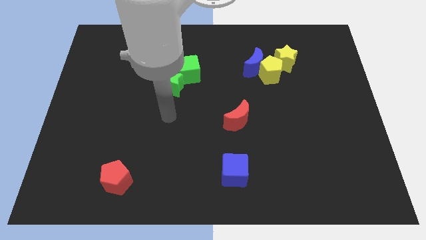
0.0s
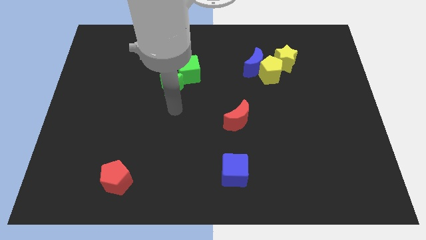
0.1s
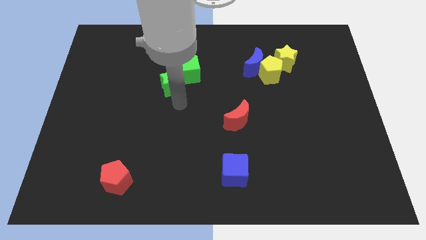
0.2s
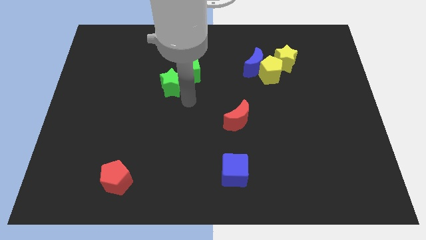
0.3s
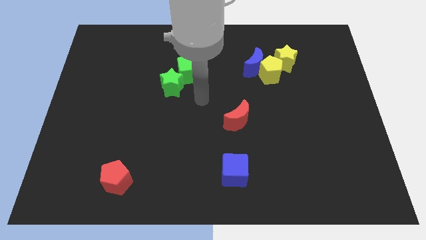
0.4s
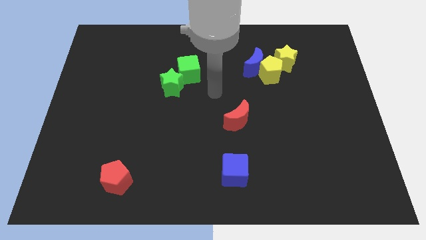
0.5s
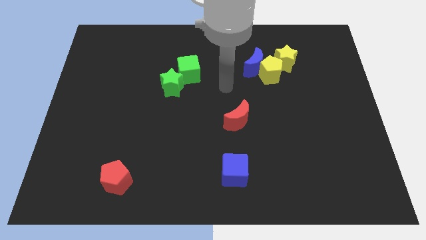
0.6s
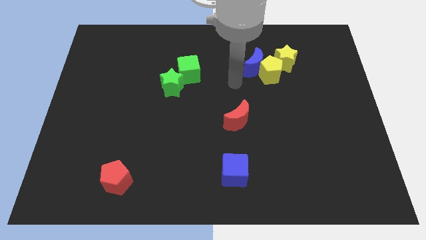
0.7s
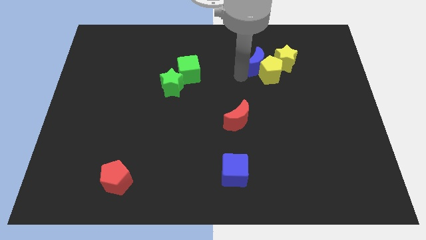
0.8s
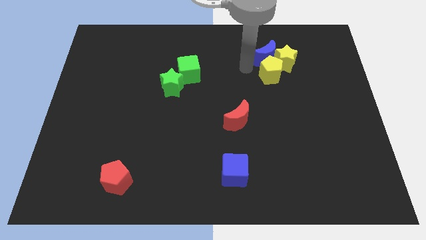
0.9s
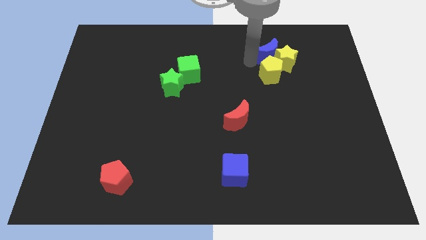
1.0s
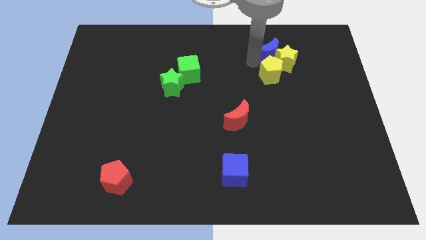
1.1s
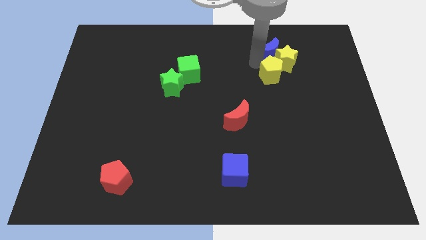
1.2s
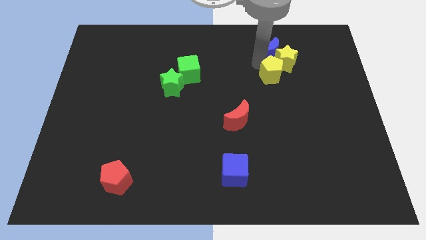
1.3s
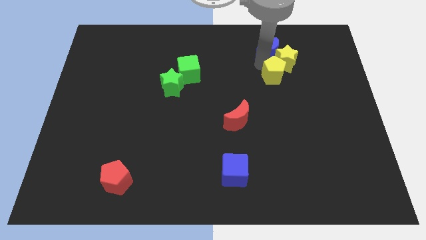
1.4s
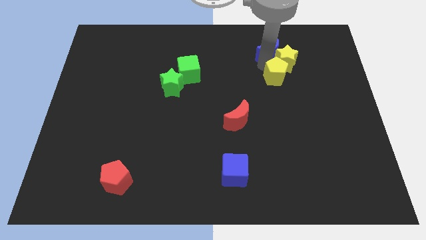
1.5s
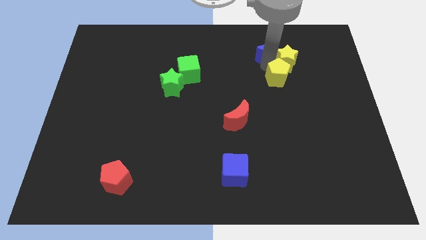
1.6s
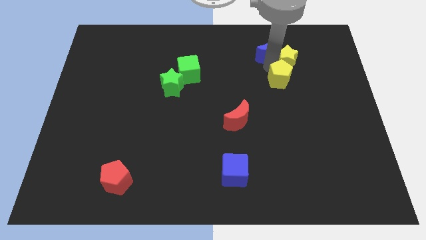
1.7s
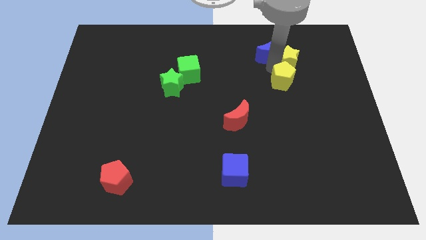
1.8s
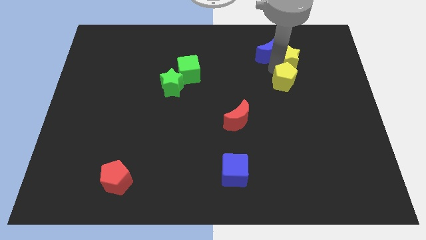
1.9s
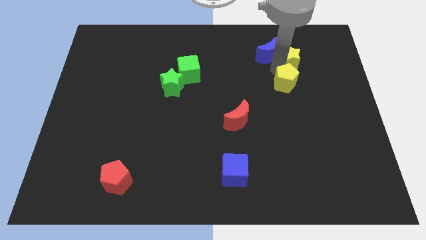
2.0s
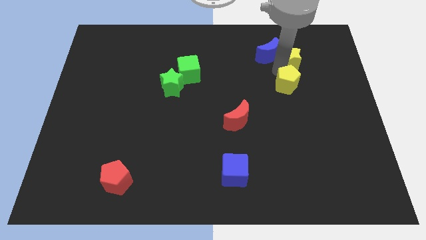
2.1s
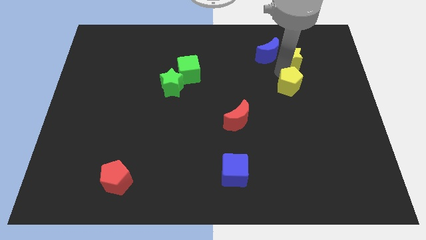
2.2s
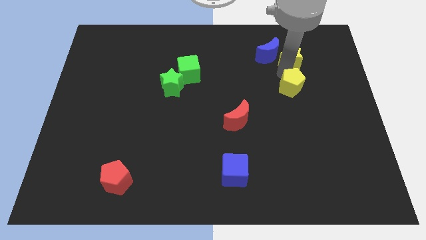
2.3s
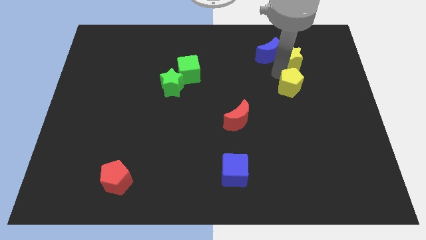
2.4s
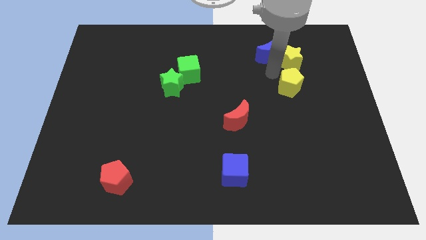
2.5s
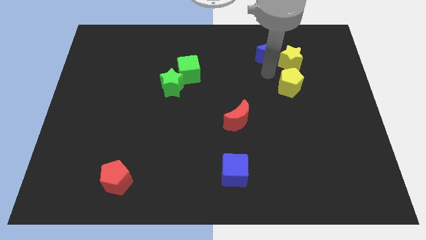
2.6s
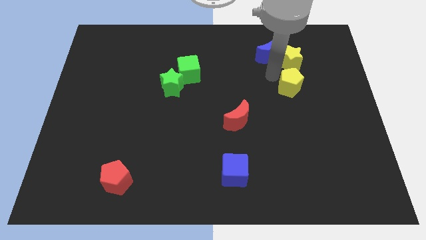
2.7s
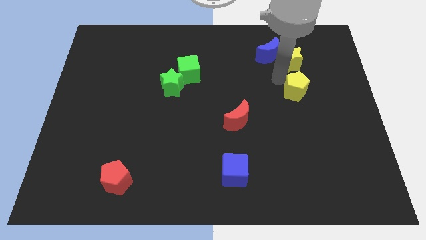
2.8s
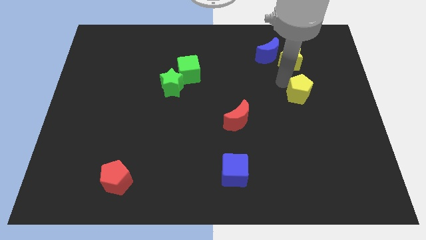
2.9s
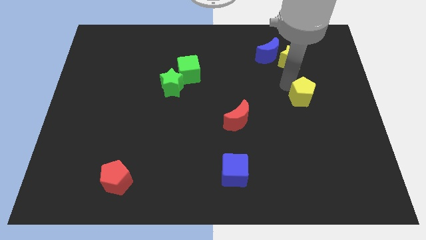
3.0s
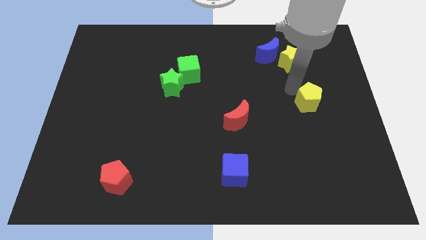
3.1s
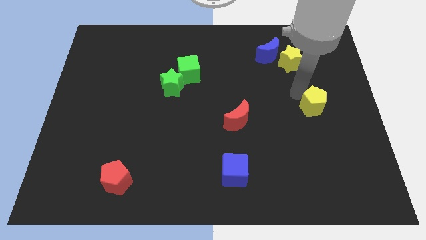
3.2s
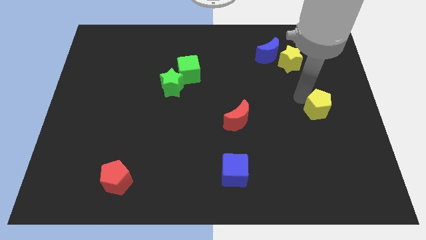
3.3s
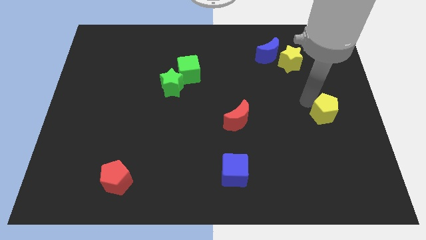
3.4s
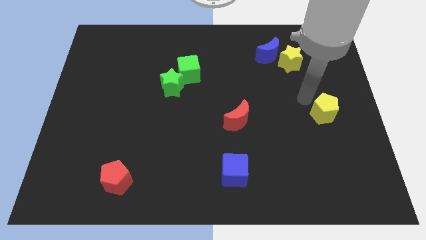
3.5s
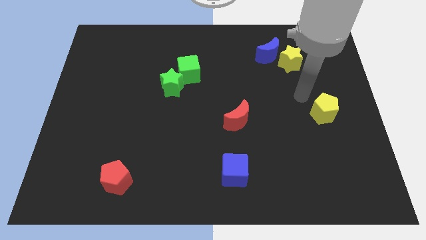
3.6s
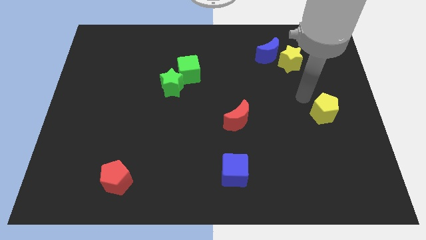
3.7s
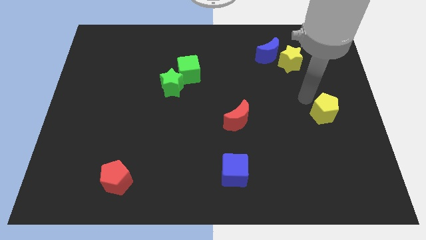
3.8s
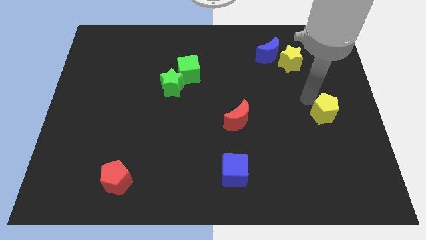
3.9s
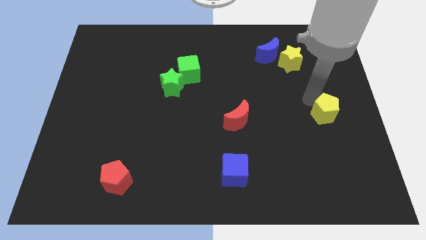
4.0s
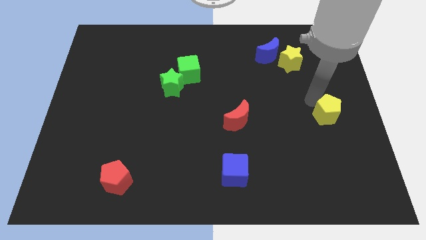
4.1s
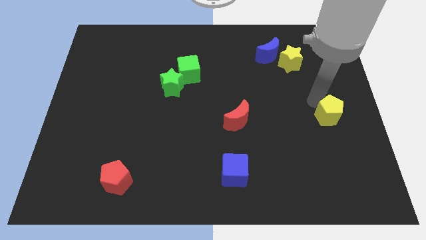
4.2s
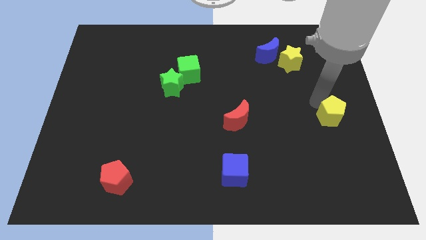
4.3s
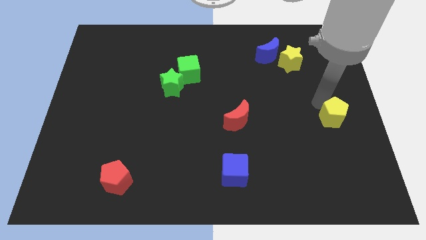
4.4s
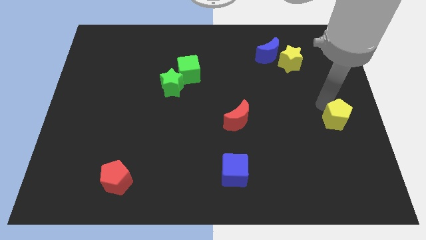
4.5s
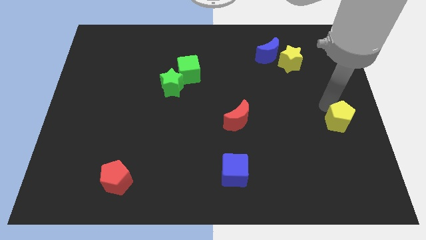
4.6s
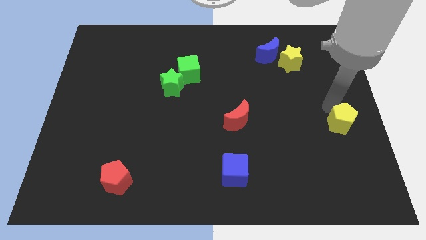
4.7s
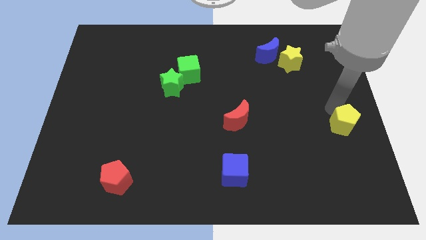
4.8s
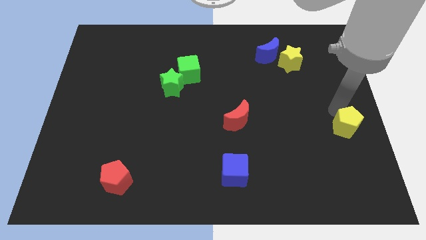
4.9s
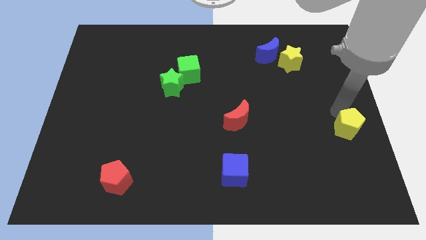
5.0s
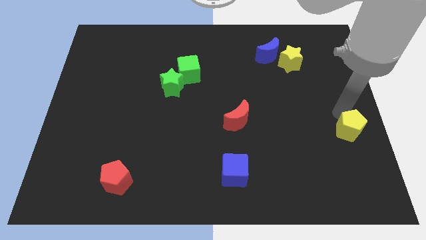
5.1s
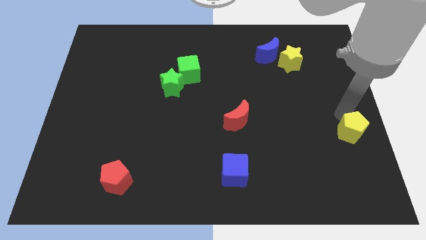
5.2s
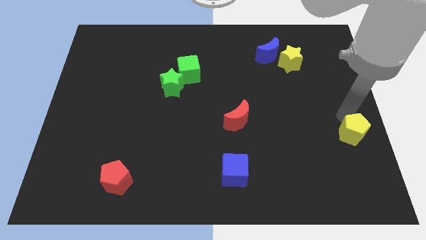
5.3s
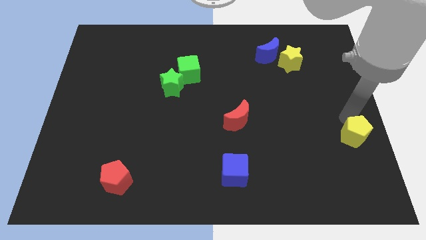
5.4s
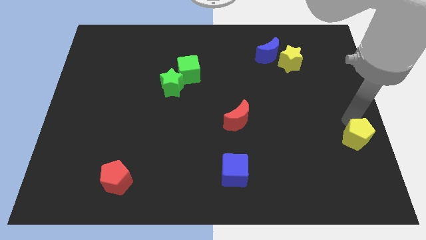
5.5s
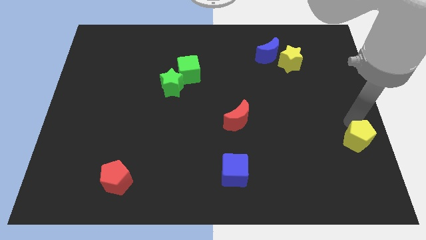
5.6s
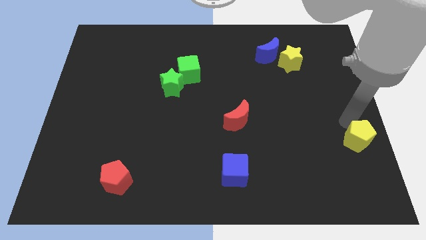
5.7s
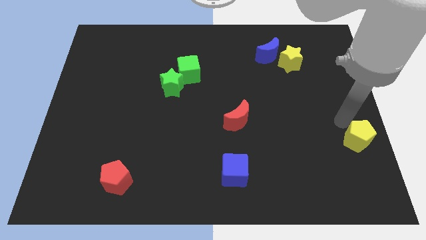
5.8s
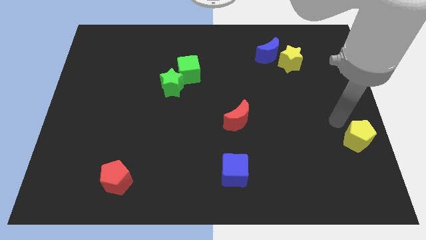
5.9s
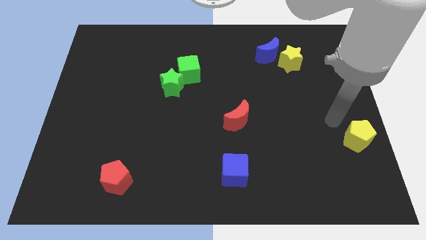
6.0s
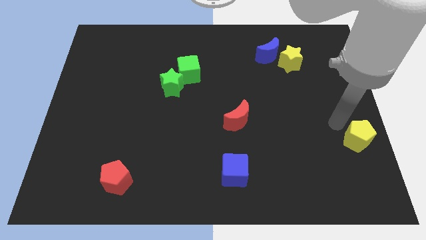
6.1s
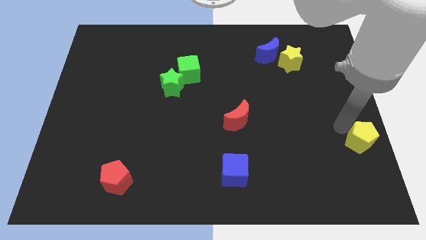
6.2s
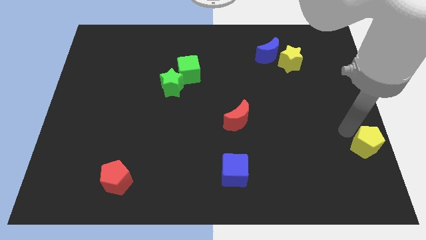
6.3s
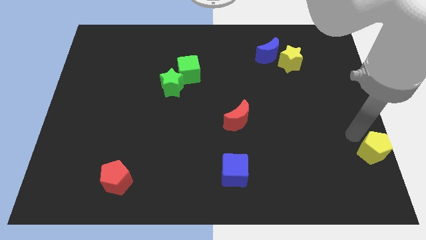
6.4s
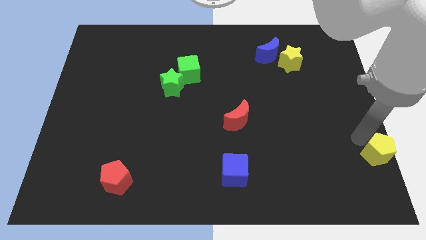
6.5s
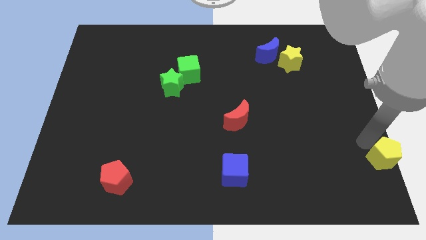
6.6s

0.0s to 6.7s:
move the yellow pentagon to the bottom right of the board

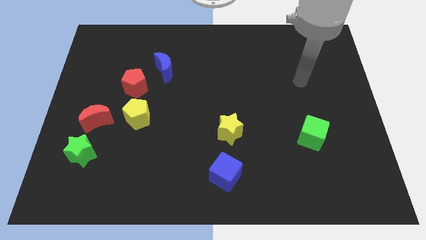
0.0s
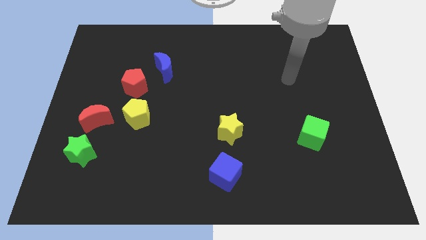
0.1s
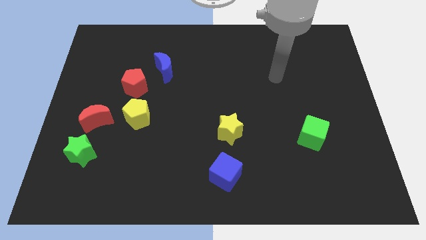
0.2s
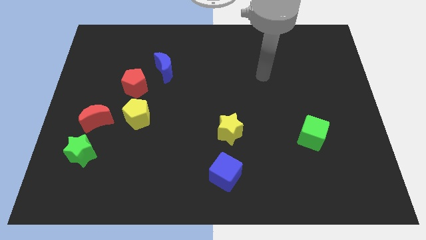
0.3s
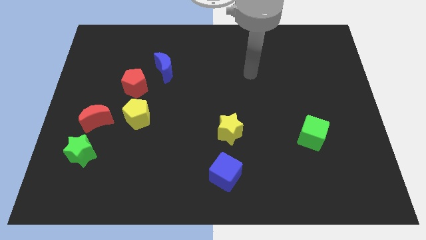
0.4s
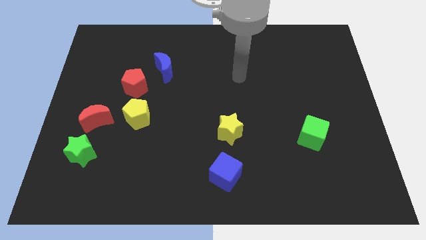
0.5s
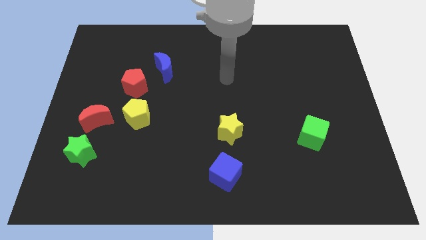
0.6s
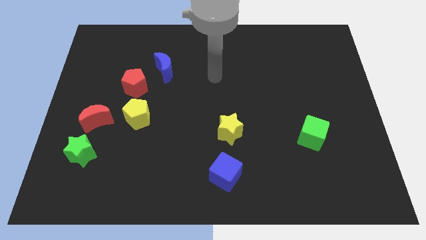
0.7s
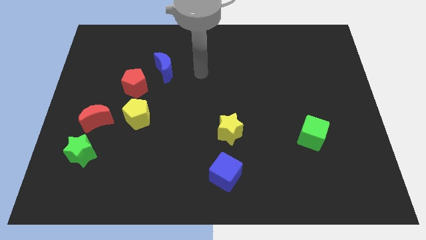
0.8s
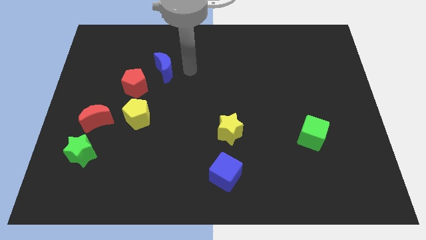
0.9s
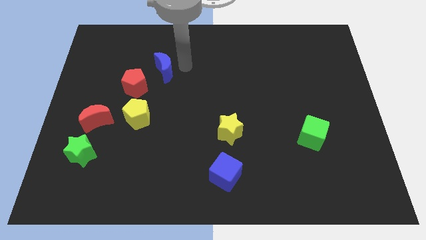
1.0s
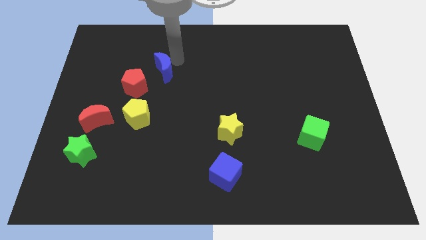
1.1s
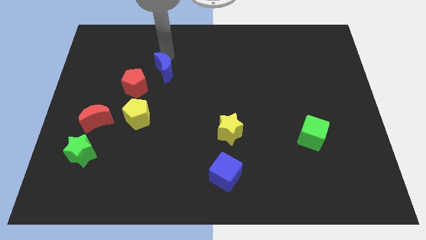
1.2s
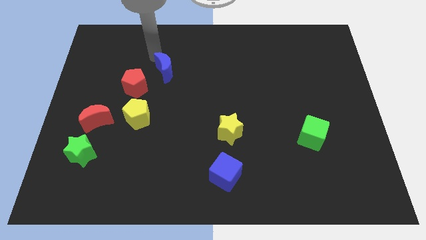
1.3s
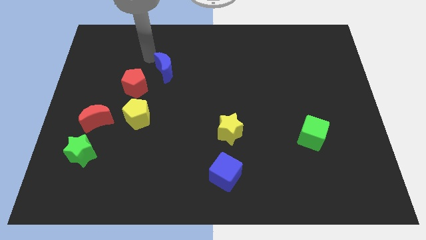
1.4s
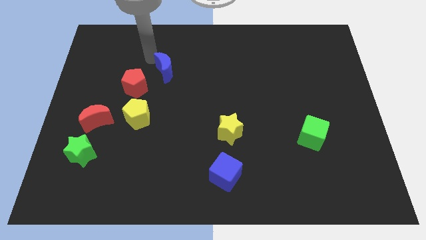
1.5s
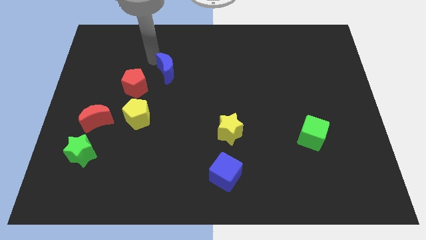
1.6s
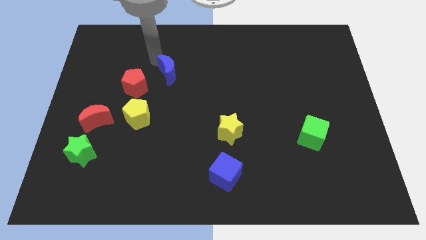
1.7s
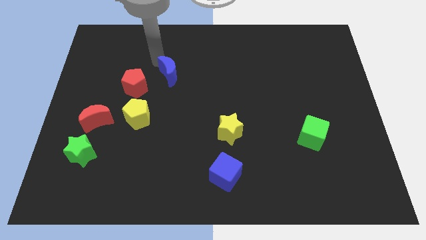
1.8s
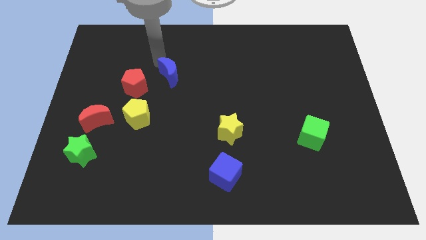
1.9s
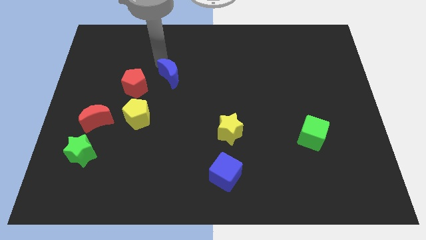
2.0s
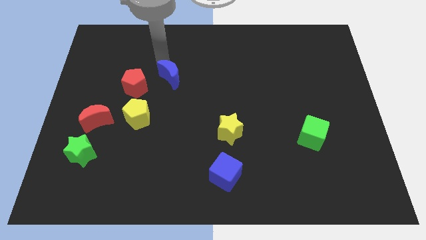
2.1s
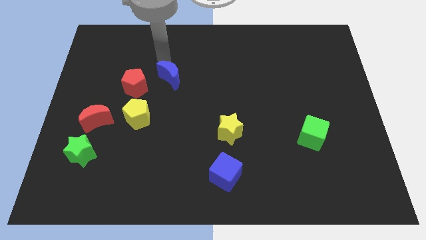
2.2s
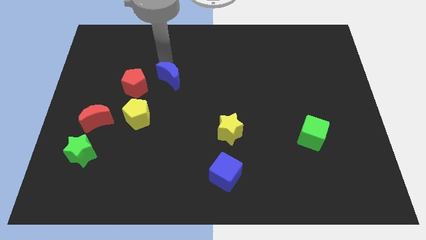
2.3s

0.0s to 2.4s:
slide the blue moon to the middle
